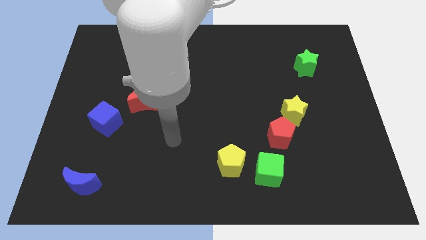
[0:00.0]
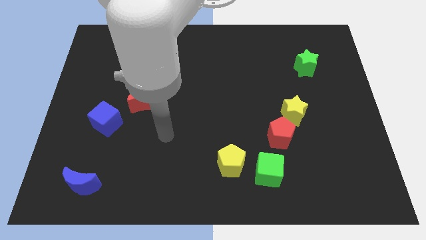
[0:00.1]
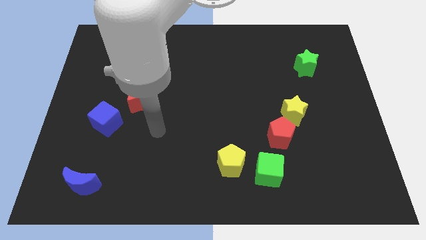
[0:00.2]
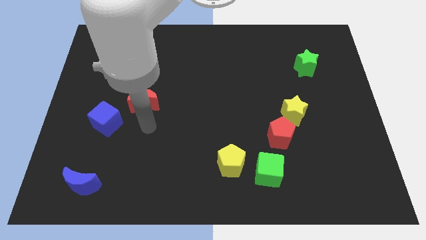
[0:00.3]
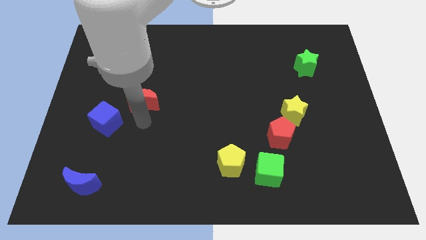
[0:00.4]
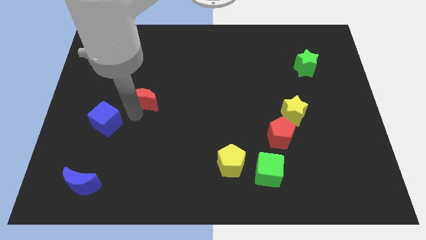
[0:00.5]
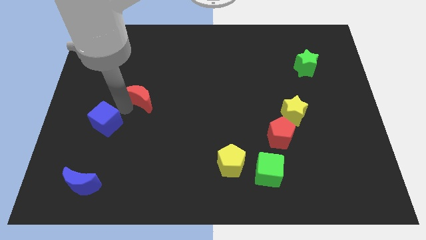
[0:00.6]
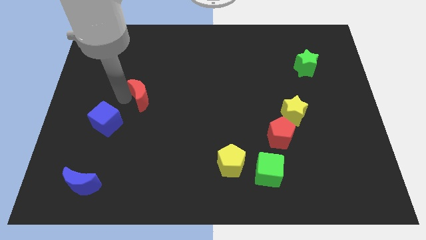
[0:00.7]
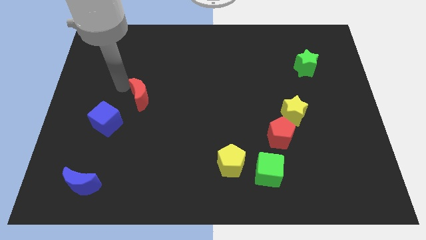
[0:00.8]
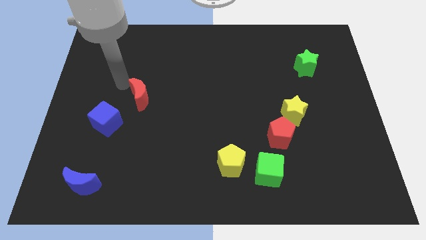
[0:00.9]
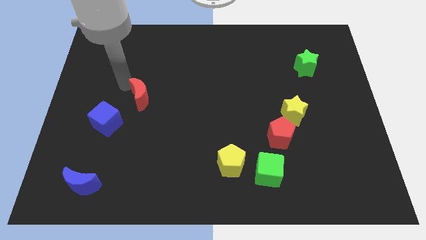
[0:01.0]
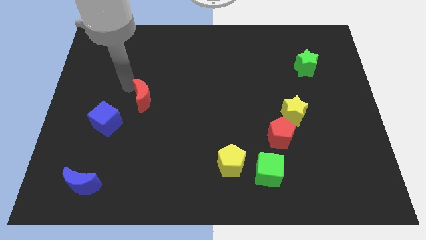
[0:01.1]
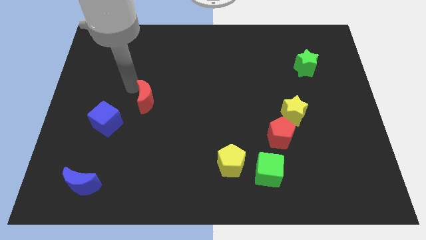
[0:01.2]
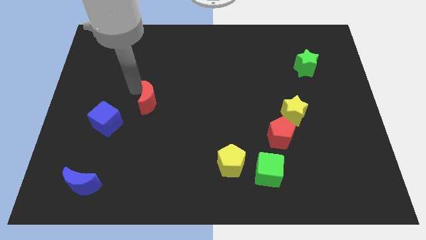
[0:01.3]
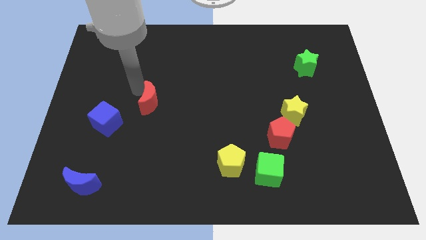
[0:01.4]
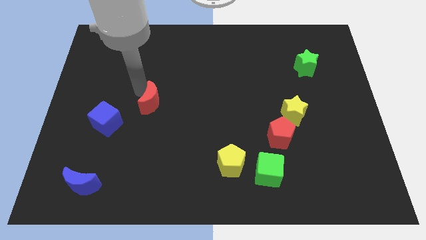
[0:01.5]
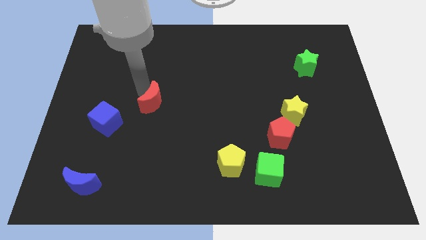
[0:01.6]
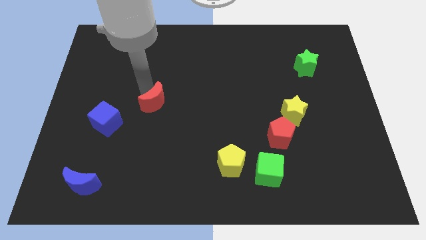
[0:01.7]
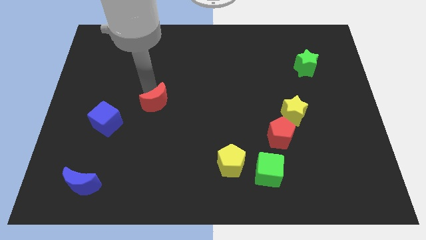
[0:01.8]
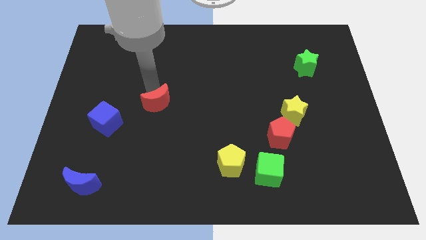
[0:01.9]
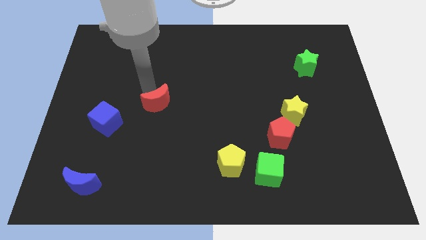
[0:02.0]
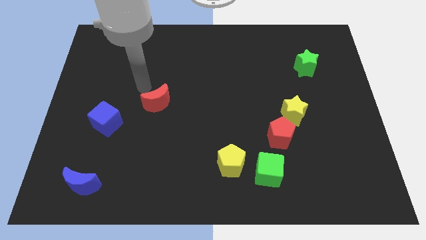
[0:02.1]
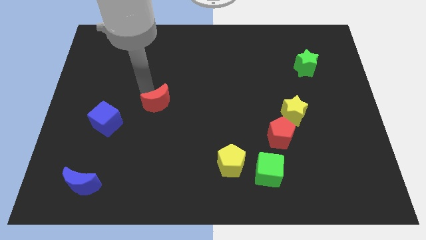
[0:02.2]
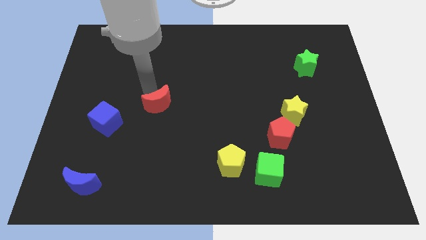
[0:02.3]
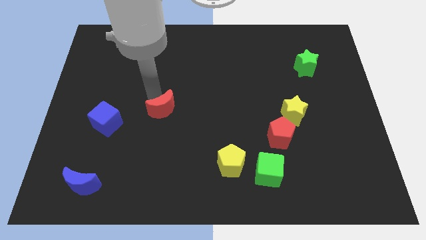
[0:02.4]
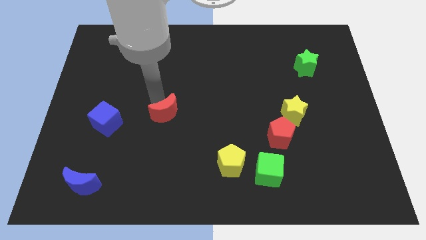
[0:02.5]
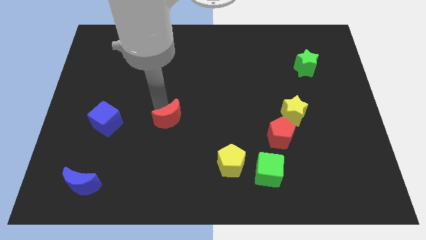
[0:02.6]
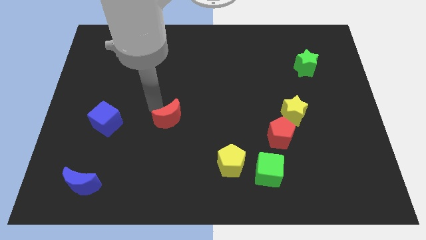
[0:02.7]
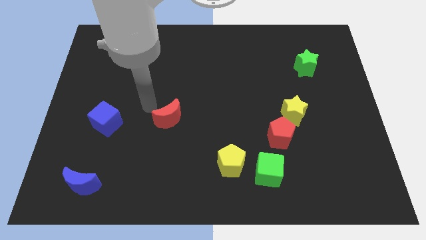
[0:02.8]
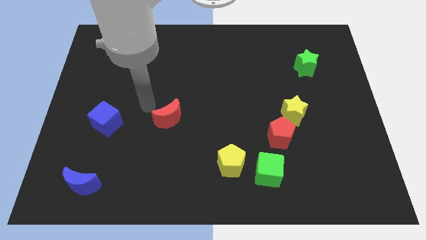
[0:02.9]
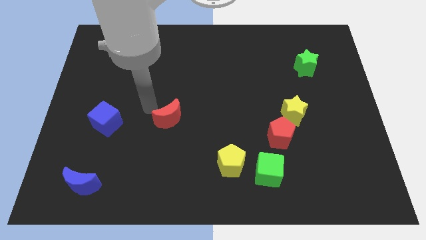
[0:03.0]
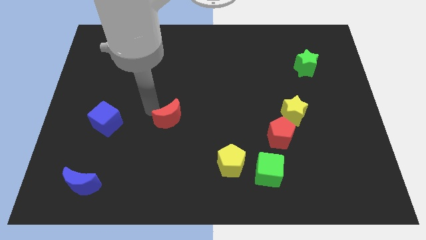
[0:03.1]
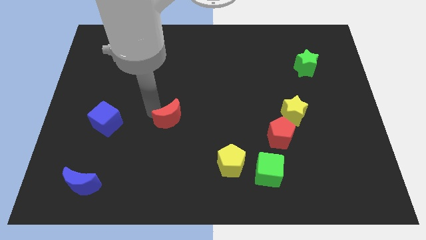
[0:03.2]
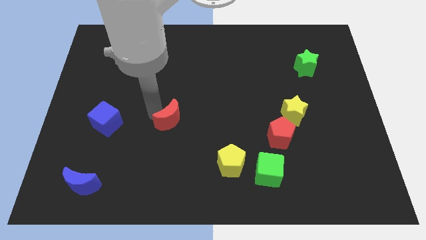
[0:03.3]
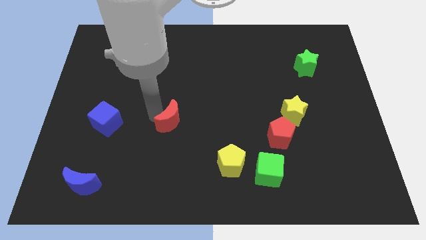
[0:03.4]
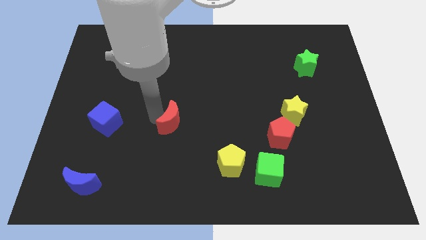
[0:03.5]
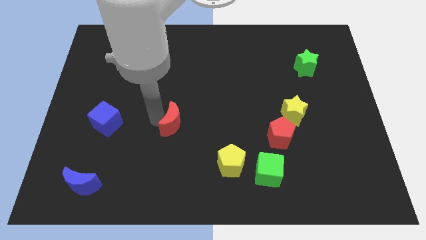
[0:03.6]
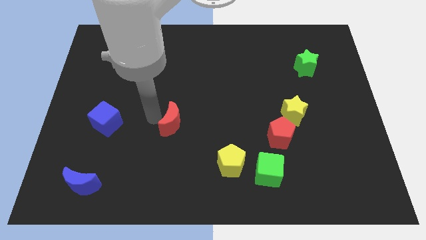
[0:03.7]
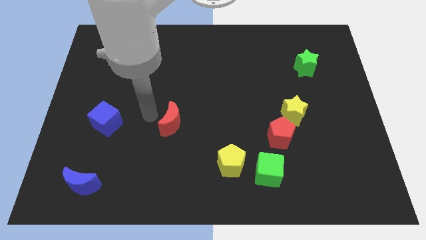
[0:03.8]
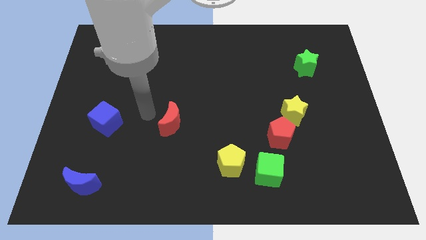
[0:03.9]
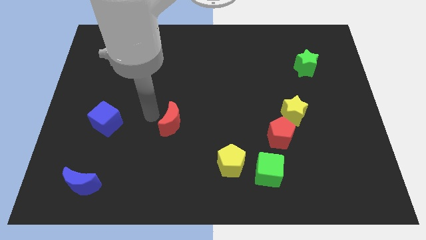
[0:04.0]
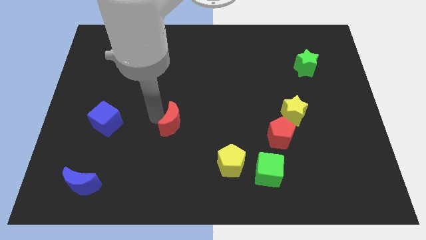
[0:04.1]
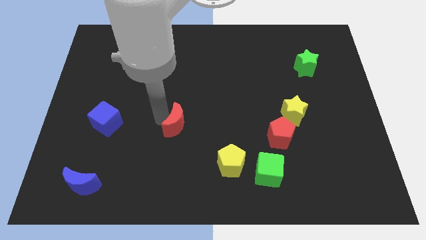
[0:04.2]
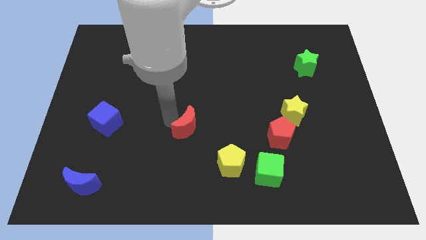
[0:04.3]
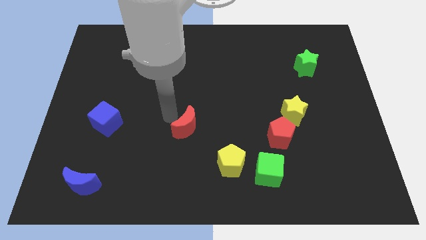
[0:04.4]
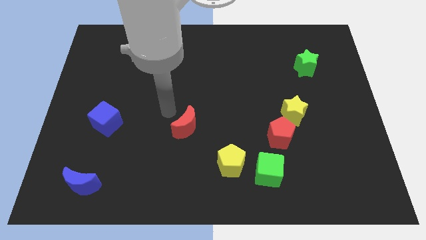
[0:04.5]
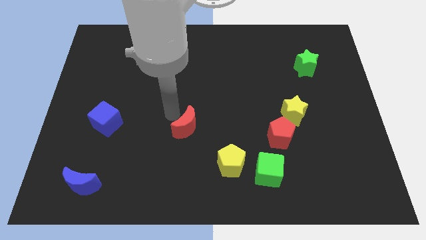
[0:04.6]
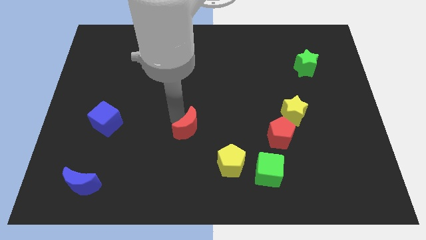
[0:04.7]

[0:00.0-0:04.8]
put the red moon to the top left of the yellow pentagon

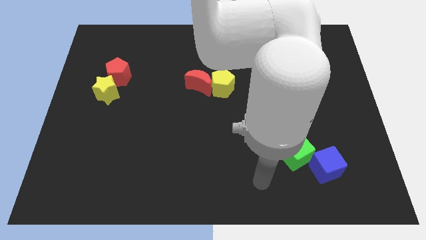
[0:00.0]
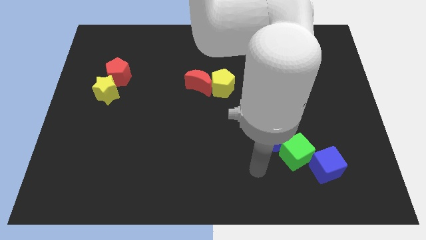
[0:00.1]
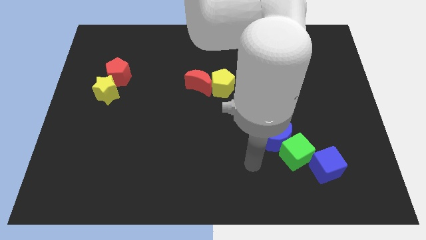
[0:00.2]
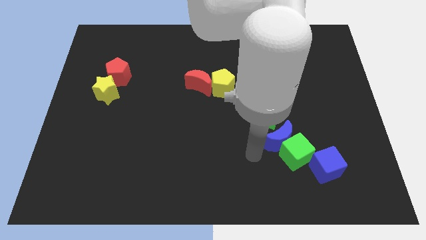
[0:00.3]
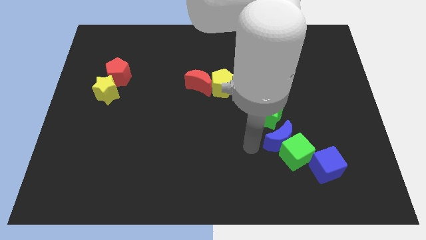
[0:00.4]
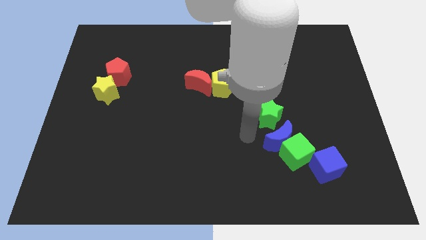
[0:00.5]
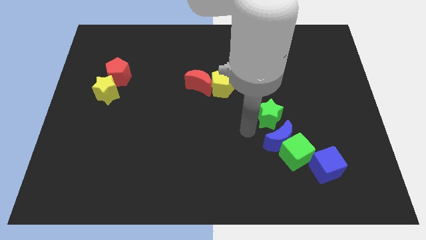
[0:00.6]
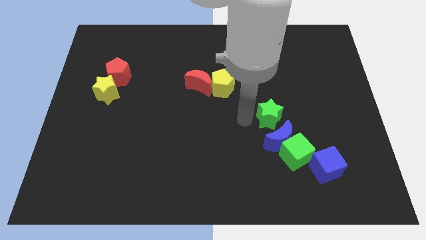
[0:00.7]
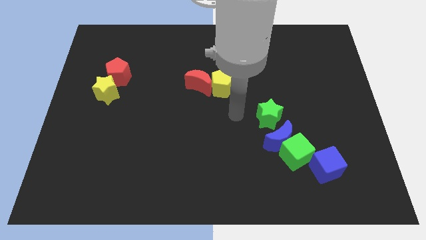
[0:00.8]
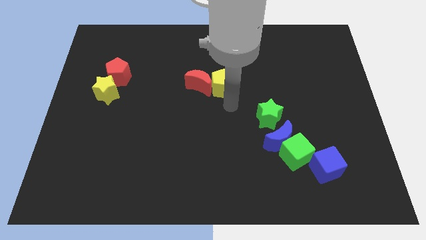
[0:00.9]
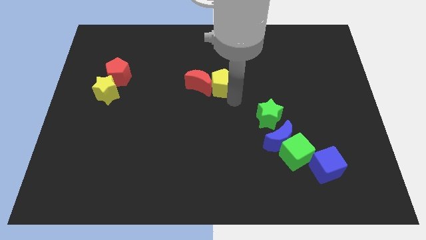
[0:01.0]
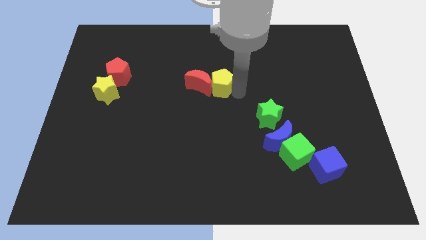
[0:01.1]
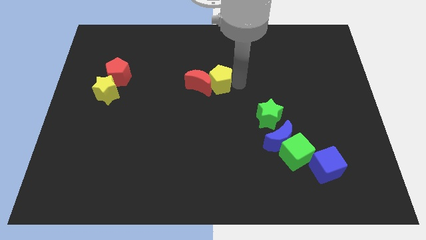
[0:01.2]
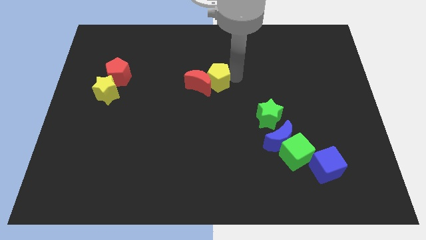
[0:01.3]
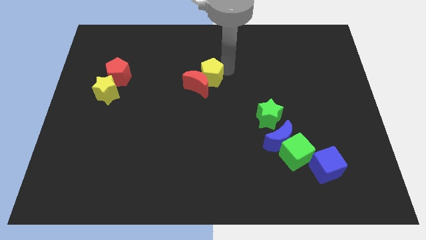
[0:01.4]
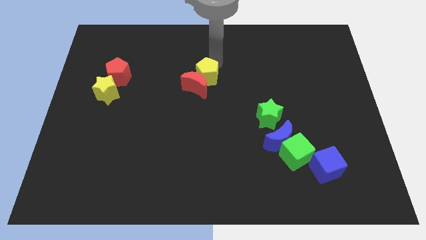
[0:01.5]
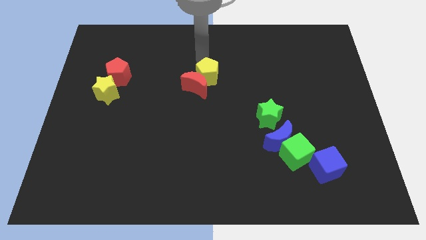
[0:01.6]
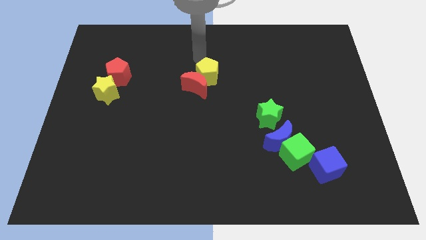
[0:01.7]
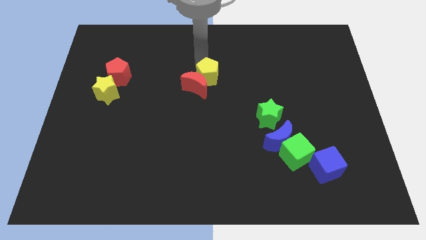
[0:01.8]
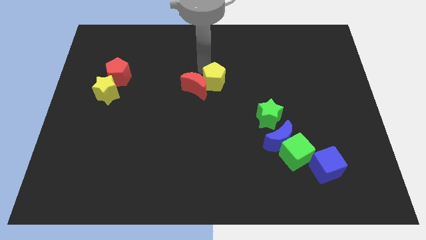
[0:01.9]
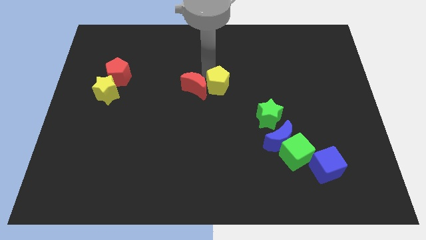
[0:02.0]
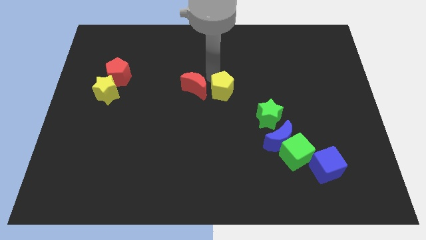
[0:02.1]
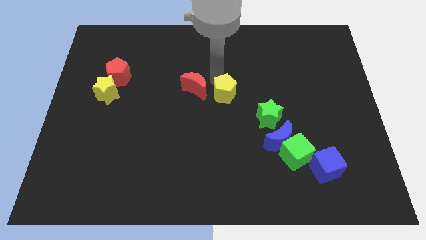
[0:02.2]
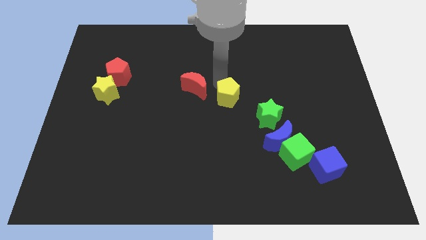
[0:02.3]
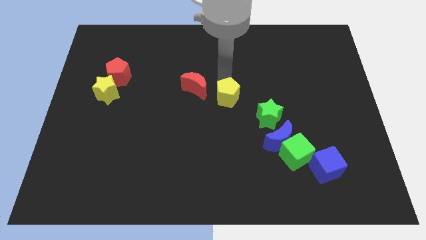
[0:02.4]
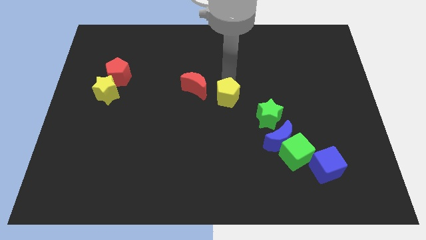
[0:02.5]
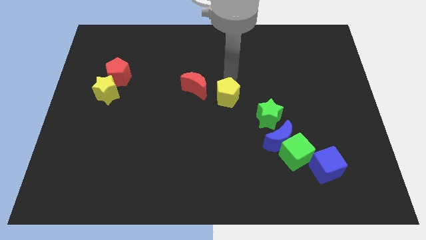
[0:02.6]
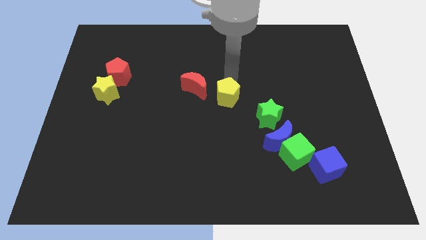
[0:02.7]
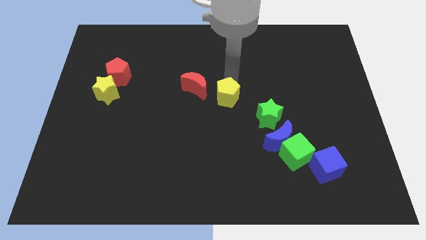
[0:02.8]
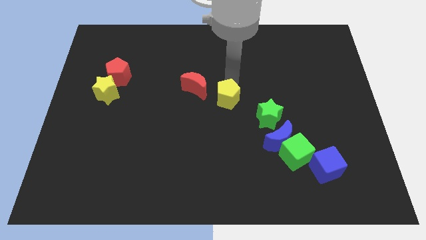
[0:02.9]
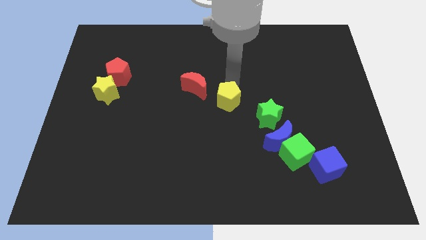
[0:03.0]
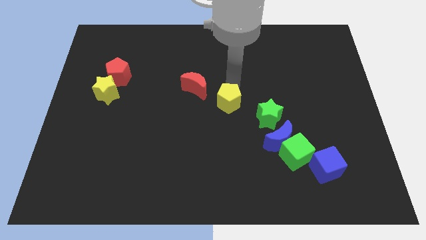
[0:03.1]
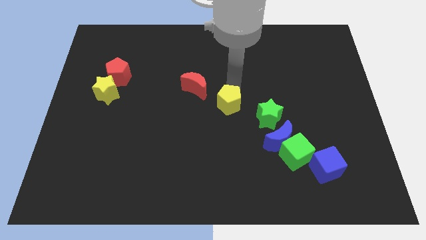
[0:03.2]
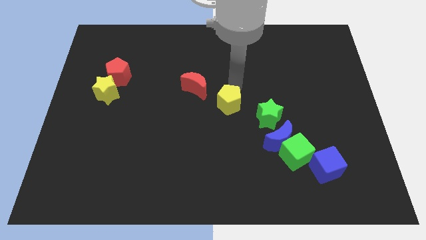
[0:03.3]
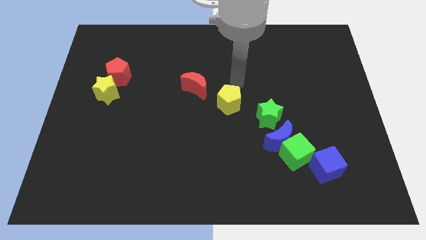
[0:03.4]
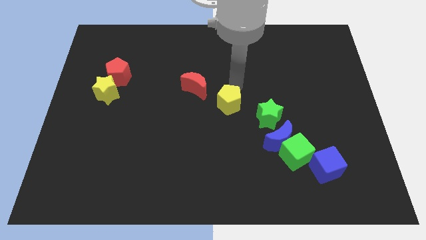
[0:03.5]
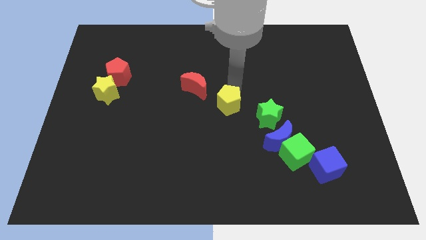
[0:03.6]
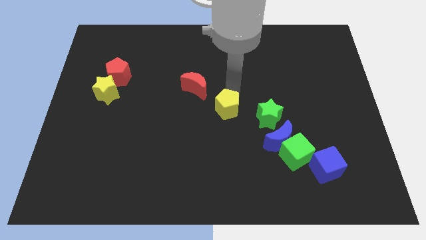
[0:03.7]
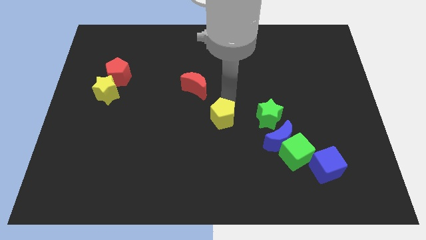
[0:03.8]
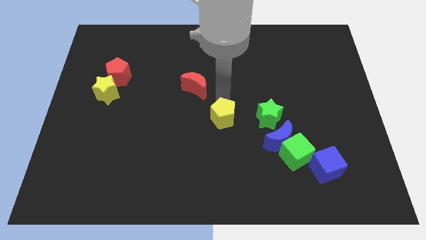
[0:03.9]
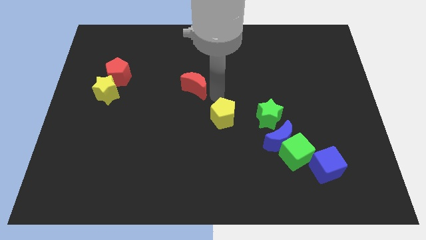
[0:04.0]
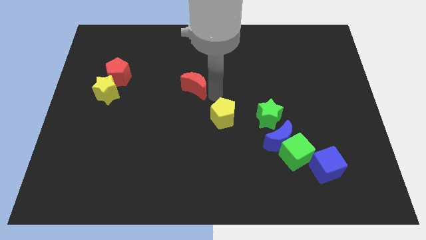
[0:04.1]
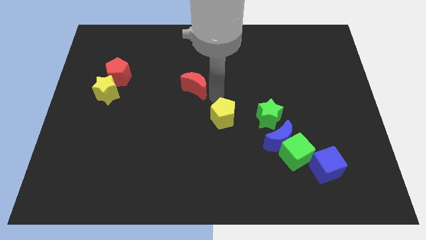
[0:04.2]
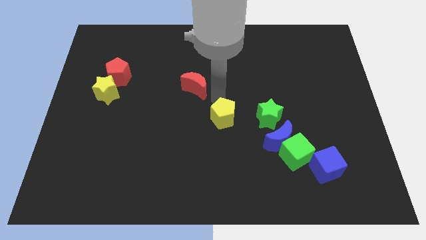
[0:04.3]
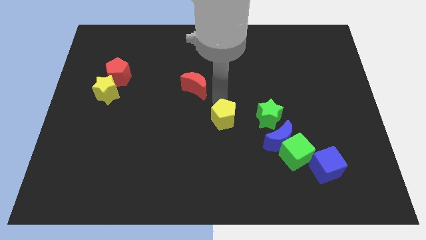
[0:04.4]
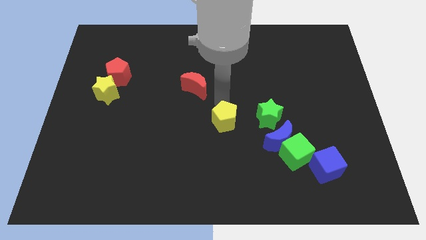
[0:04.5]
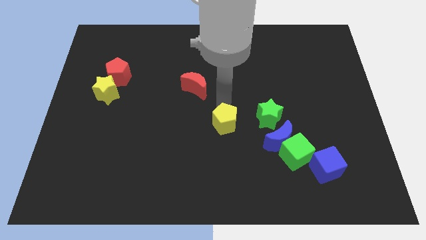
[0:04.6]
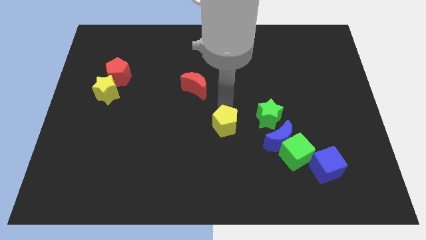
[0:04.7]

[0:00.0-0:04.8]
put the yellow pentagon to the left side of the blue moon
